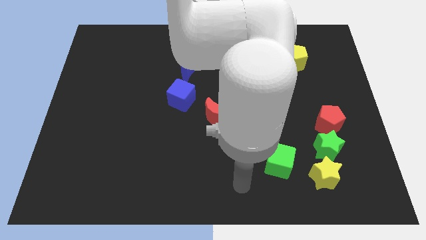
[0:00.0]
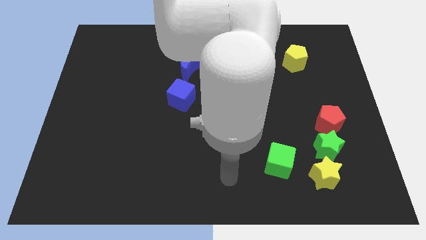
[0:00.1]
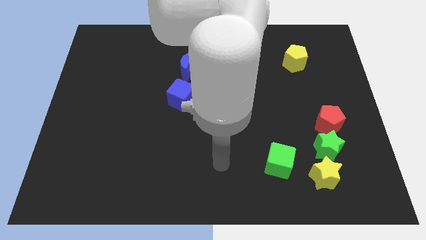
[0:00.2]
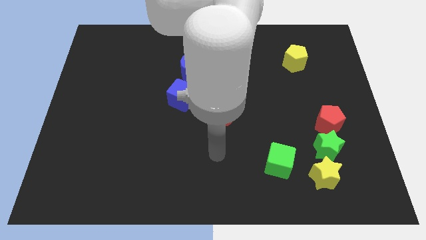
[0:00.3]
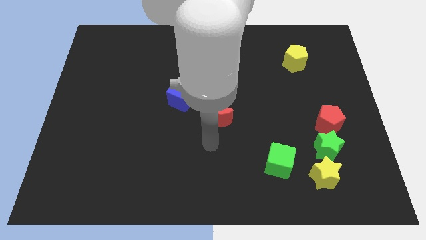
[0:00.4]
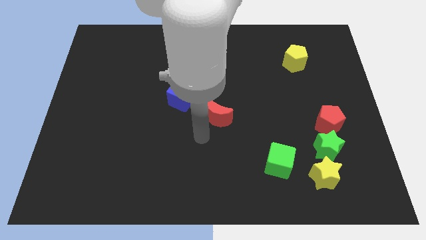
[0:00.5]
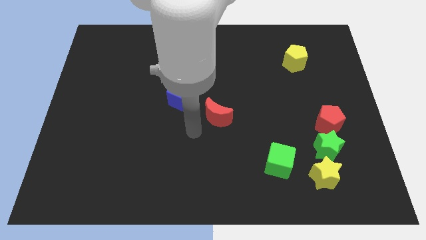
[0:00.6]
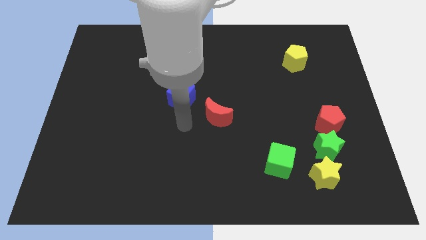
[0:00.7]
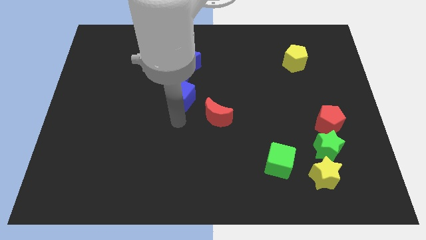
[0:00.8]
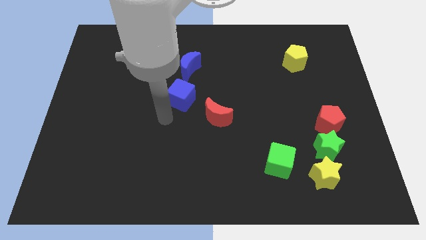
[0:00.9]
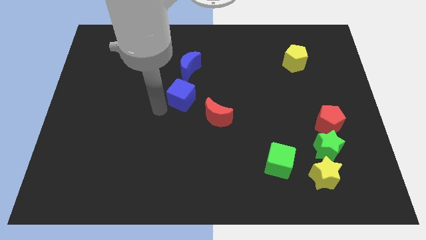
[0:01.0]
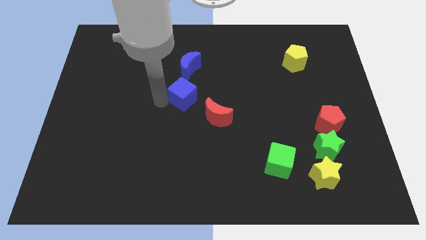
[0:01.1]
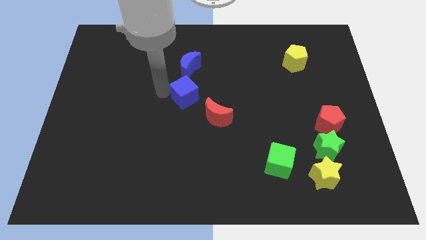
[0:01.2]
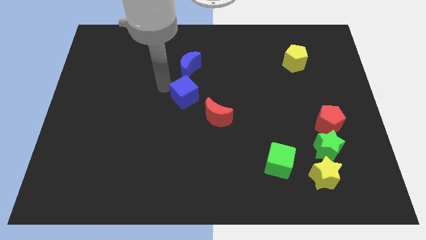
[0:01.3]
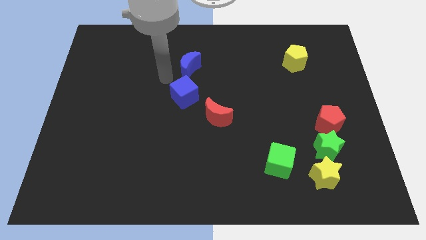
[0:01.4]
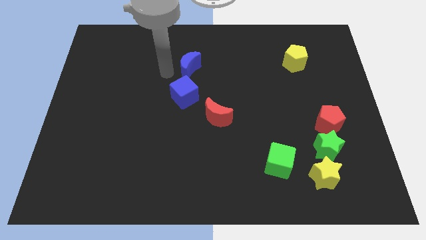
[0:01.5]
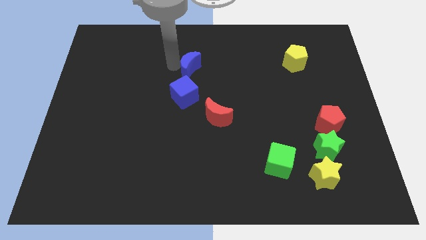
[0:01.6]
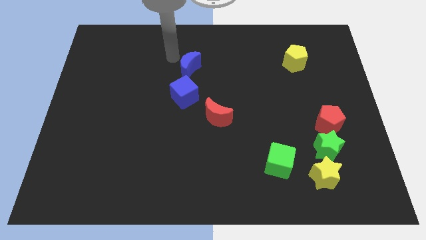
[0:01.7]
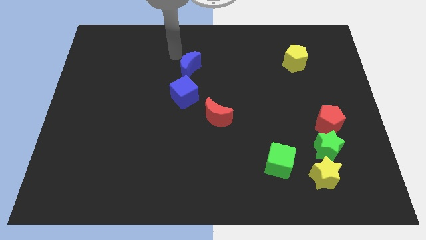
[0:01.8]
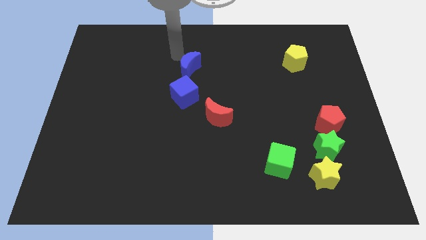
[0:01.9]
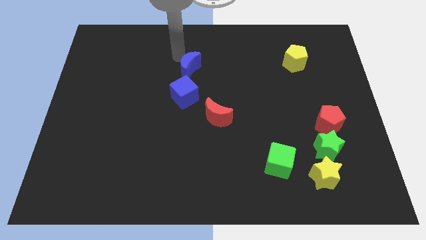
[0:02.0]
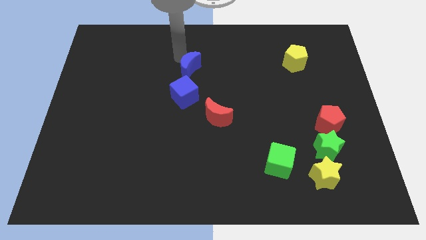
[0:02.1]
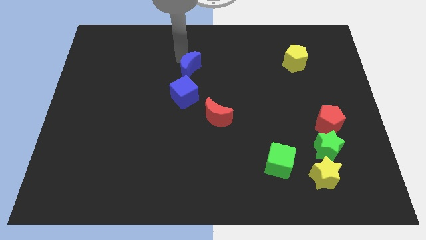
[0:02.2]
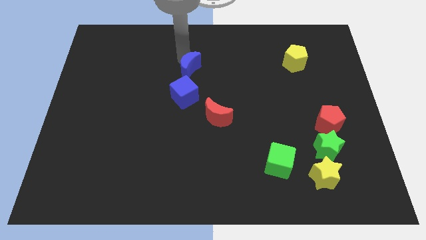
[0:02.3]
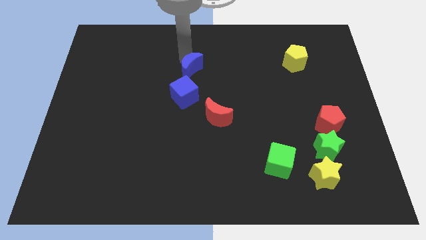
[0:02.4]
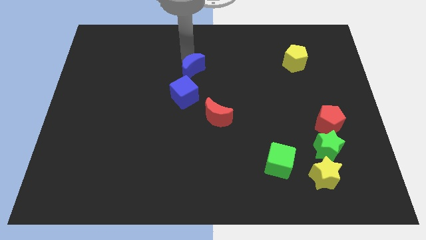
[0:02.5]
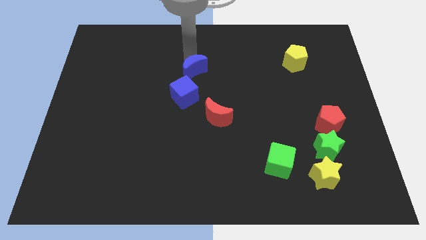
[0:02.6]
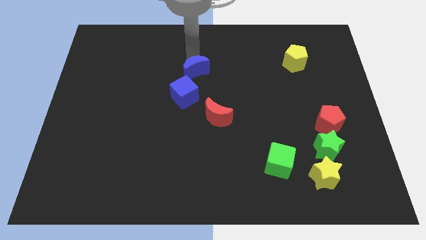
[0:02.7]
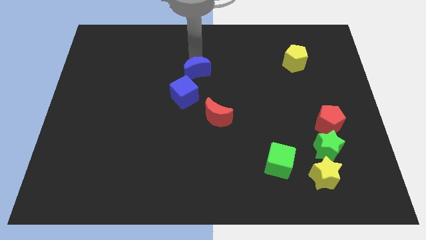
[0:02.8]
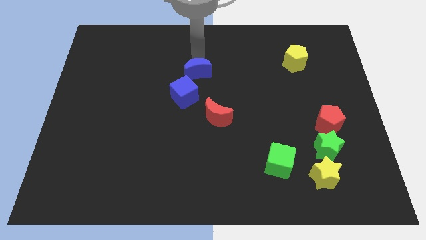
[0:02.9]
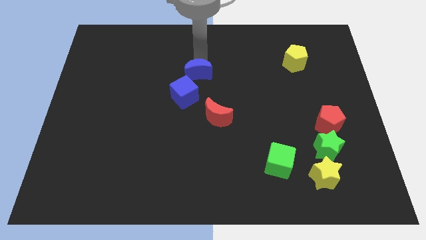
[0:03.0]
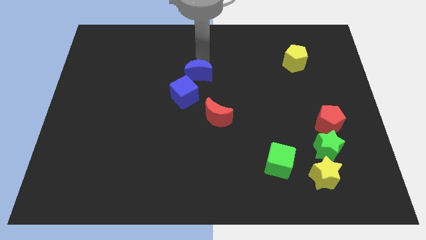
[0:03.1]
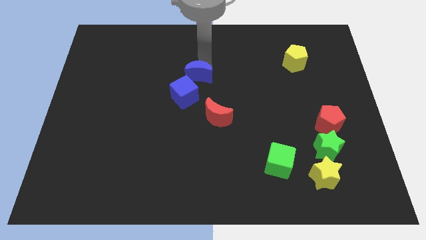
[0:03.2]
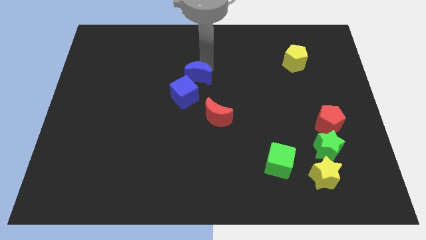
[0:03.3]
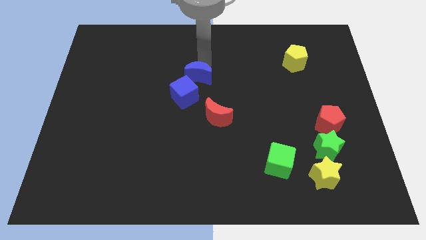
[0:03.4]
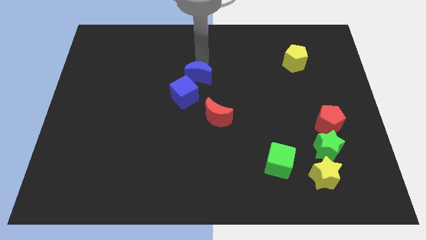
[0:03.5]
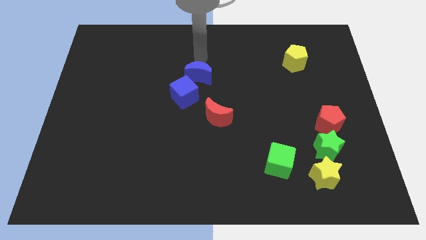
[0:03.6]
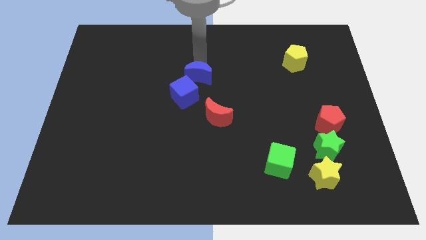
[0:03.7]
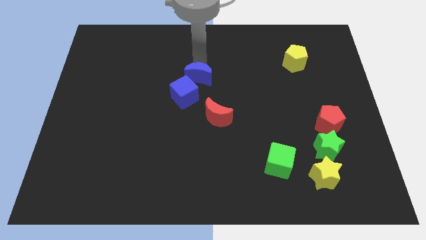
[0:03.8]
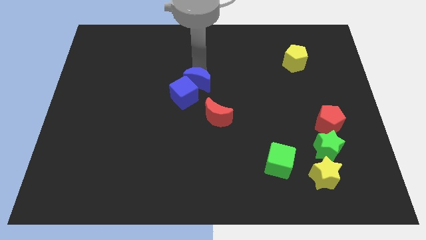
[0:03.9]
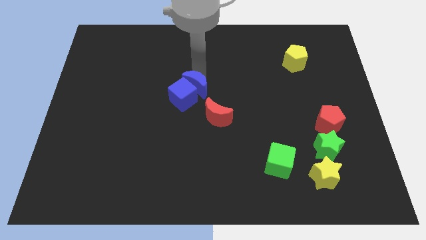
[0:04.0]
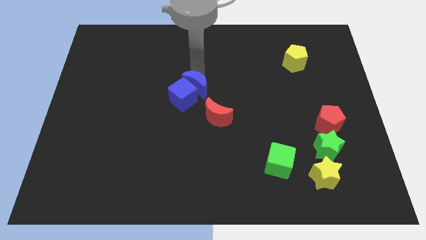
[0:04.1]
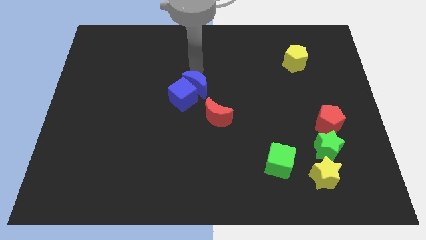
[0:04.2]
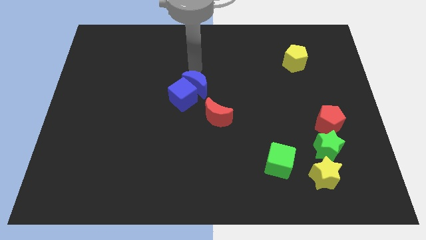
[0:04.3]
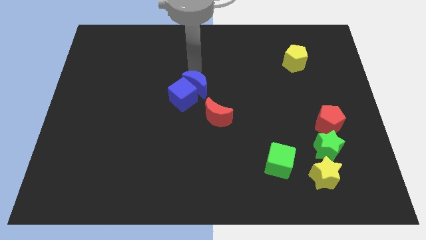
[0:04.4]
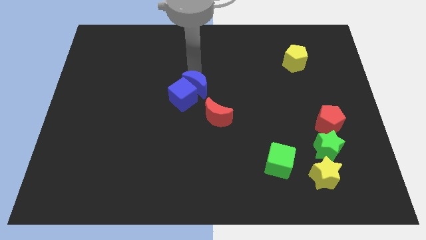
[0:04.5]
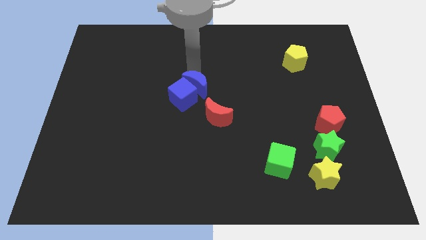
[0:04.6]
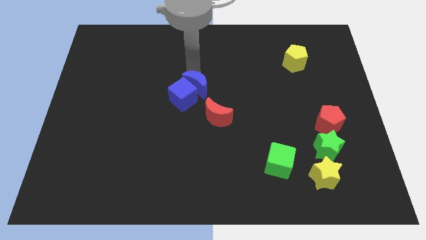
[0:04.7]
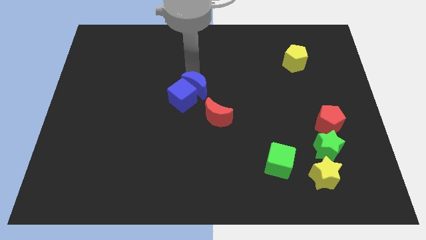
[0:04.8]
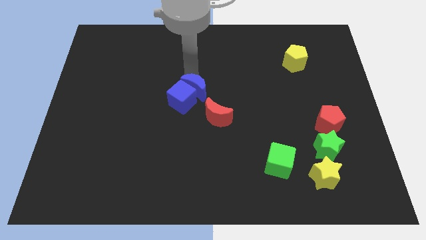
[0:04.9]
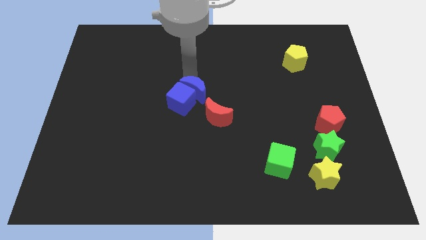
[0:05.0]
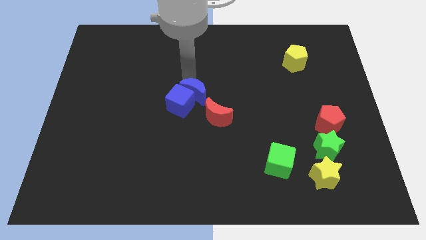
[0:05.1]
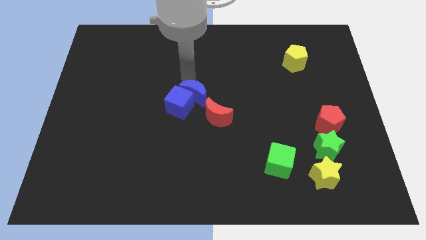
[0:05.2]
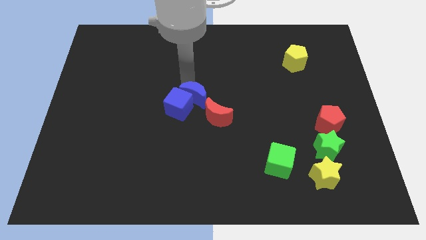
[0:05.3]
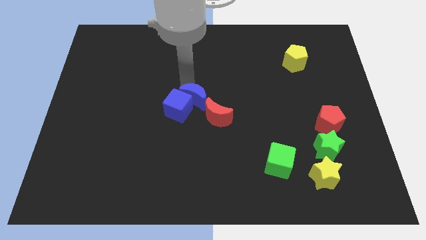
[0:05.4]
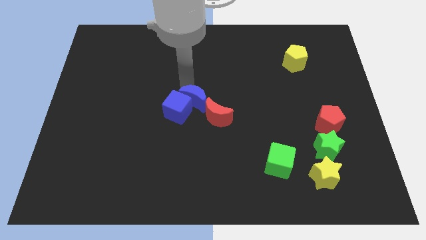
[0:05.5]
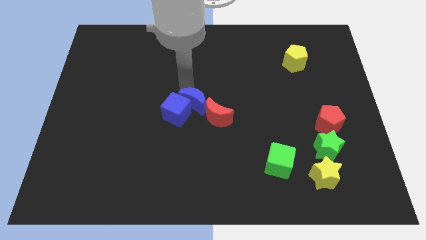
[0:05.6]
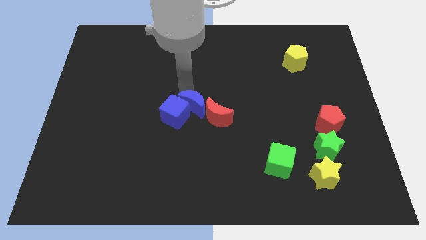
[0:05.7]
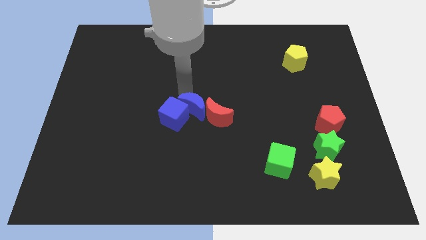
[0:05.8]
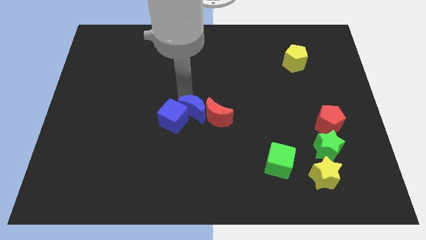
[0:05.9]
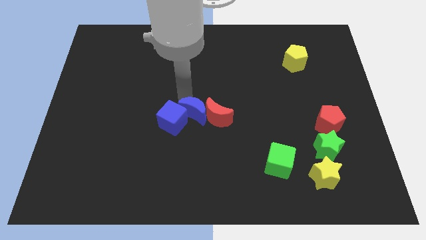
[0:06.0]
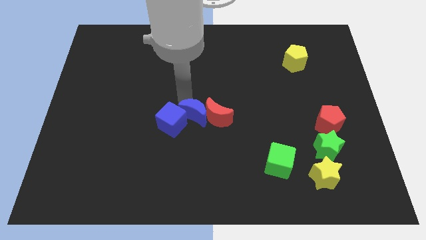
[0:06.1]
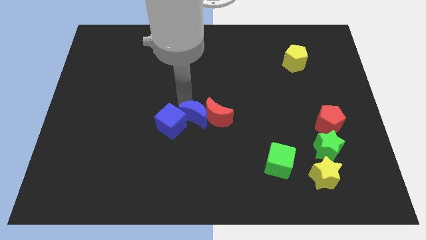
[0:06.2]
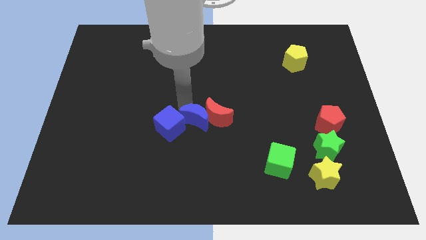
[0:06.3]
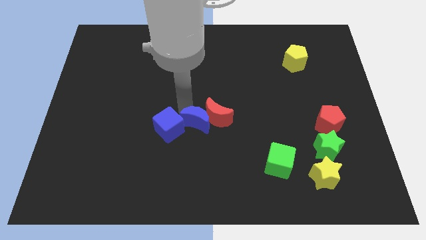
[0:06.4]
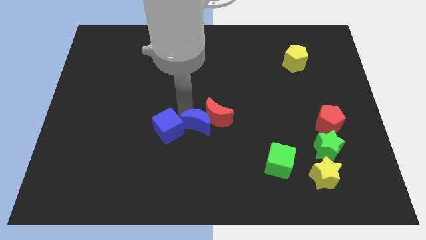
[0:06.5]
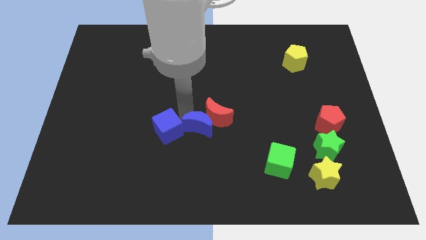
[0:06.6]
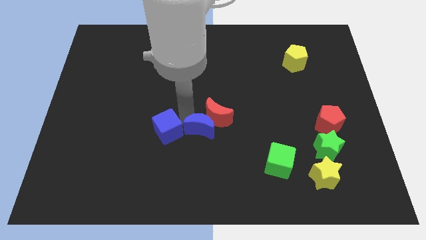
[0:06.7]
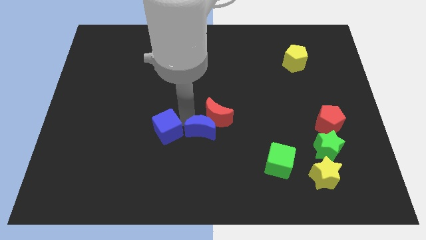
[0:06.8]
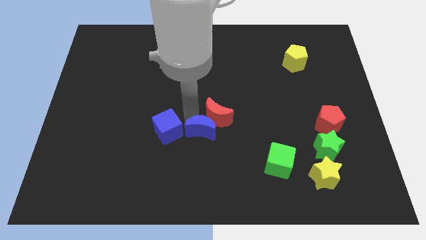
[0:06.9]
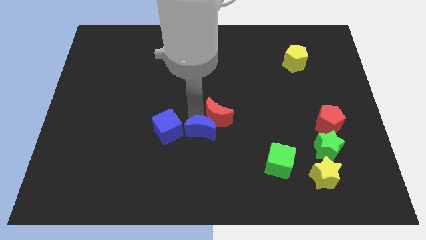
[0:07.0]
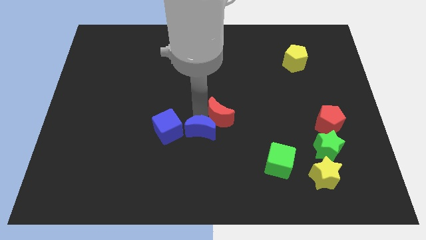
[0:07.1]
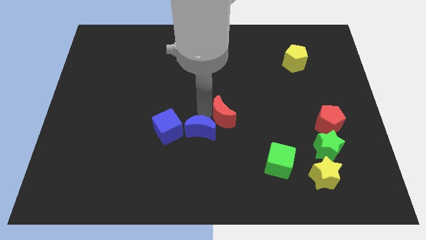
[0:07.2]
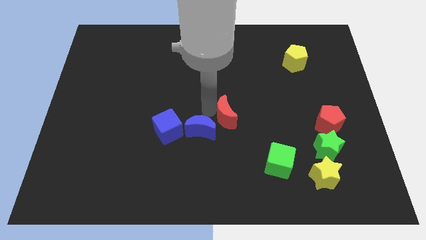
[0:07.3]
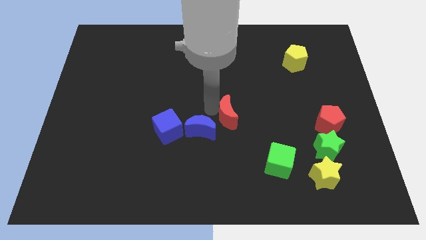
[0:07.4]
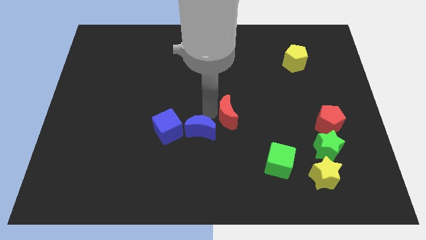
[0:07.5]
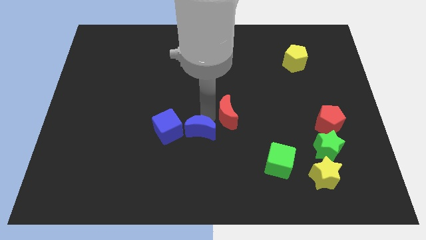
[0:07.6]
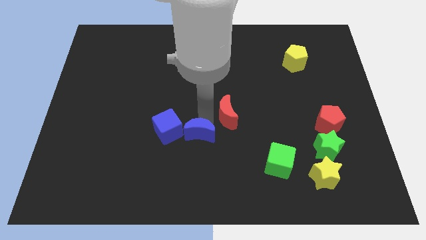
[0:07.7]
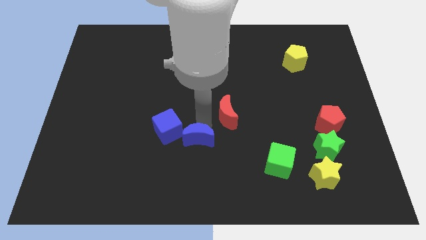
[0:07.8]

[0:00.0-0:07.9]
push the blue moon down
